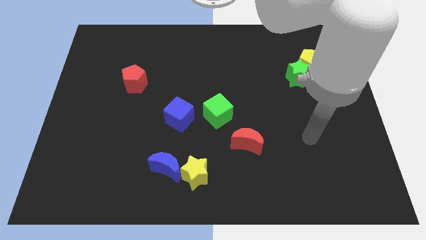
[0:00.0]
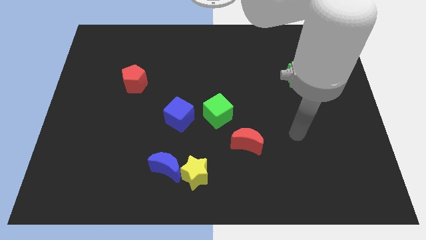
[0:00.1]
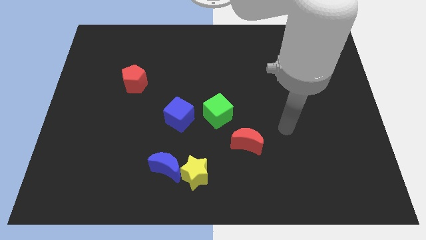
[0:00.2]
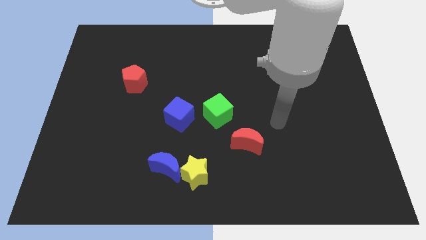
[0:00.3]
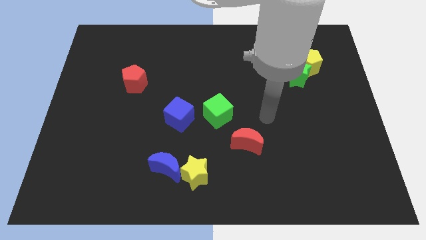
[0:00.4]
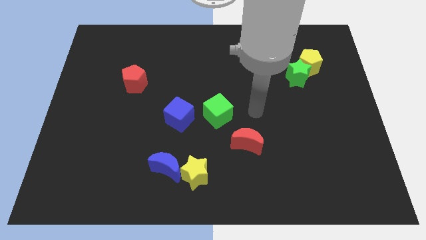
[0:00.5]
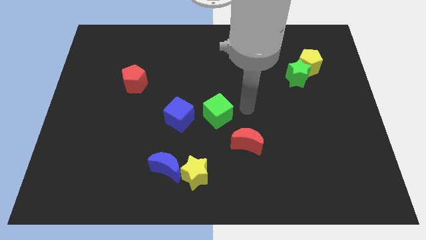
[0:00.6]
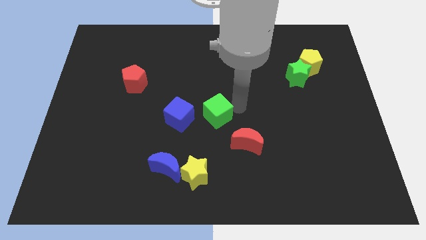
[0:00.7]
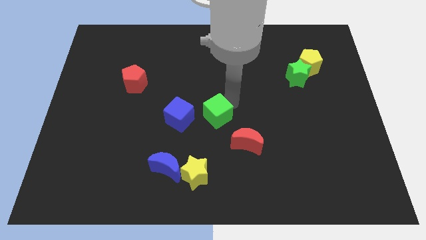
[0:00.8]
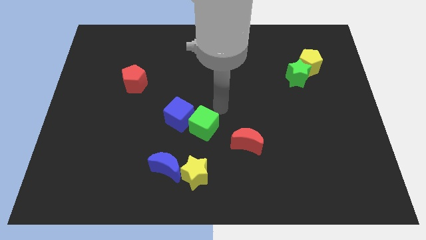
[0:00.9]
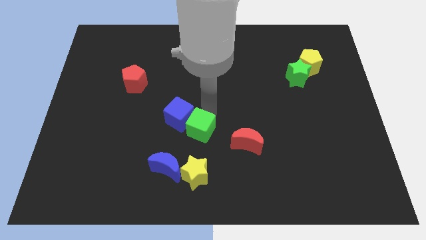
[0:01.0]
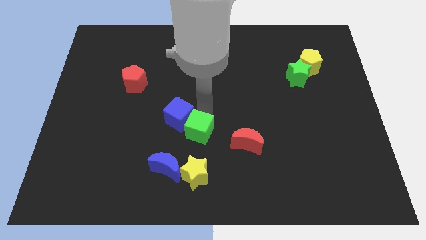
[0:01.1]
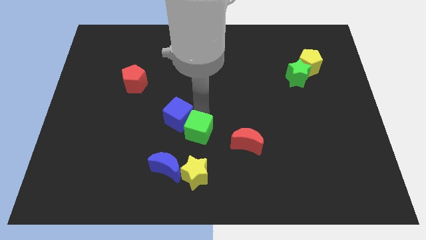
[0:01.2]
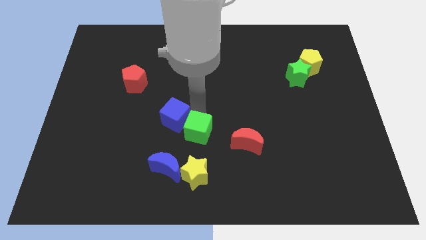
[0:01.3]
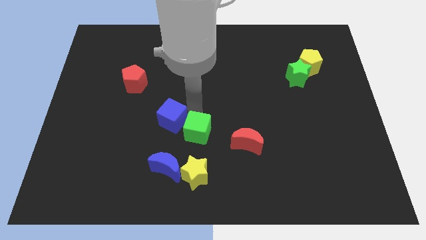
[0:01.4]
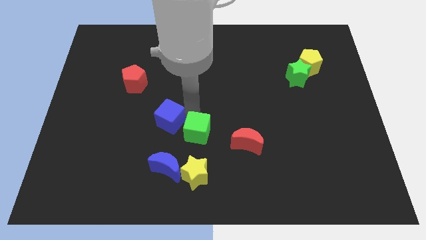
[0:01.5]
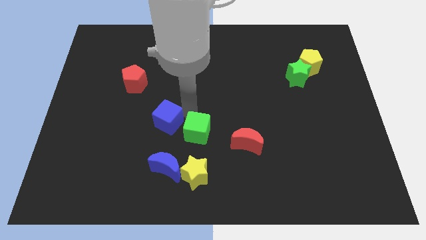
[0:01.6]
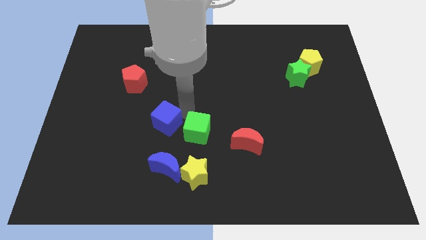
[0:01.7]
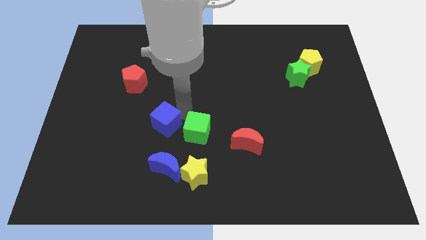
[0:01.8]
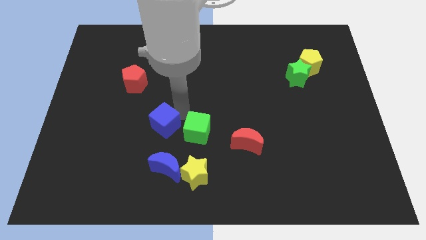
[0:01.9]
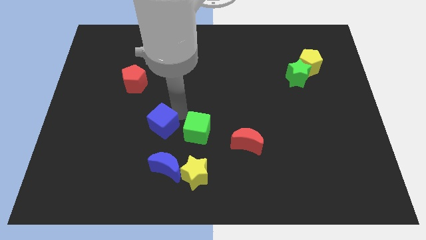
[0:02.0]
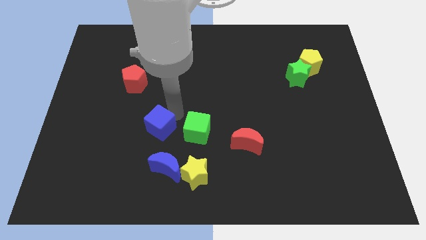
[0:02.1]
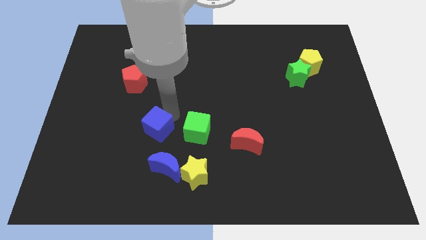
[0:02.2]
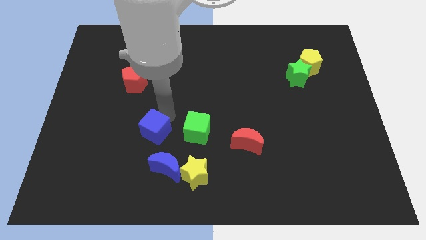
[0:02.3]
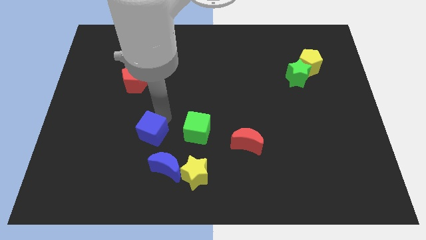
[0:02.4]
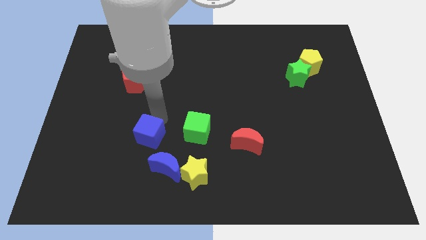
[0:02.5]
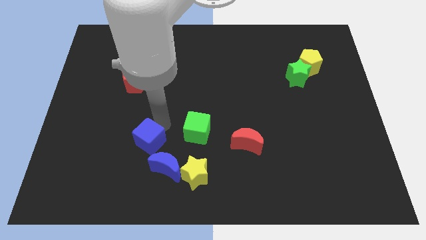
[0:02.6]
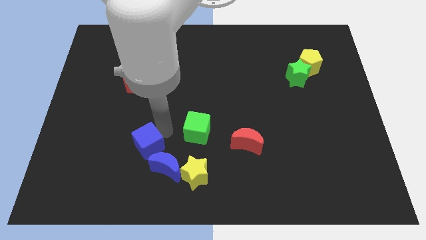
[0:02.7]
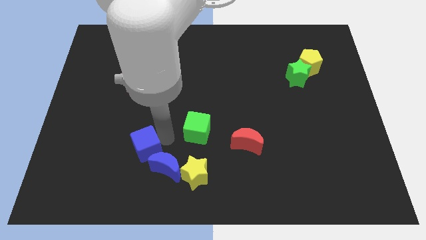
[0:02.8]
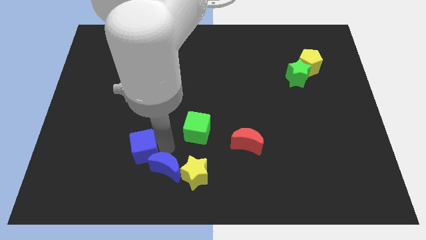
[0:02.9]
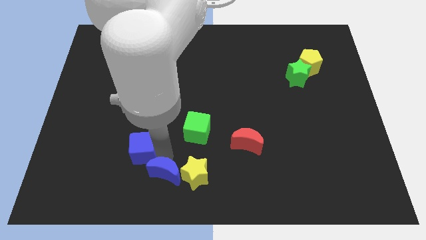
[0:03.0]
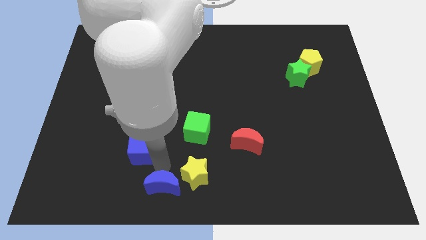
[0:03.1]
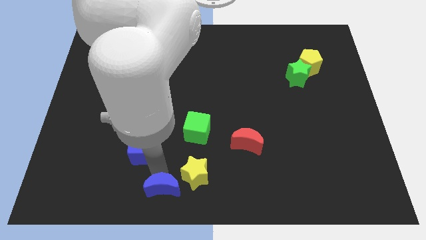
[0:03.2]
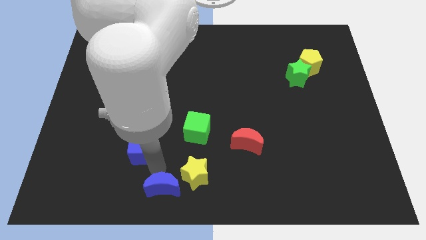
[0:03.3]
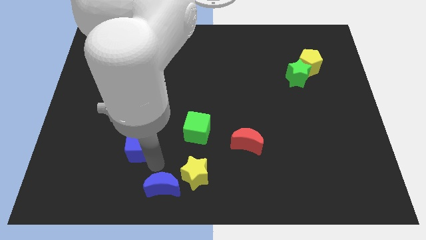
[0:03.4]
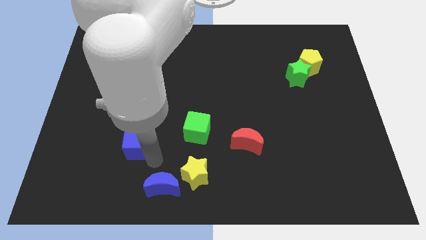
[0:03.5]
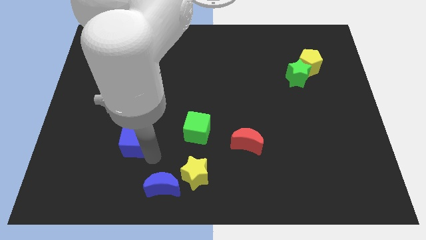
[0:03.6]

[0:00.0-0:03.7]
slightly slide the blue cube to the left

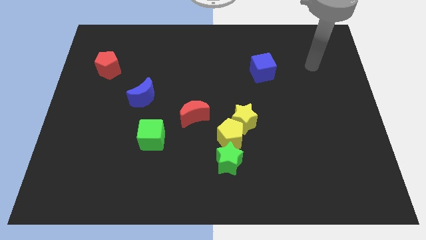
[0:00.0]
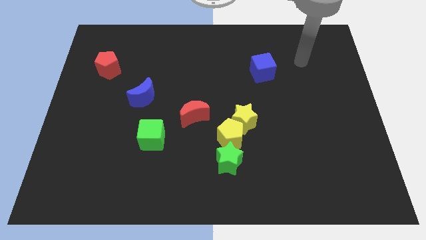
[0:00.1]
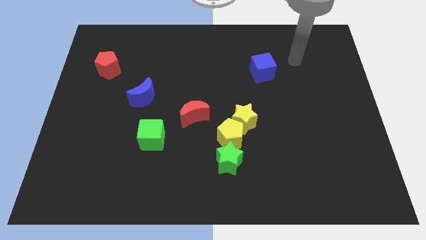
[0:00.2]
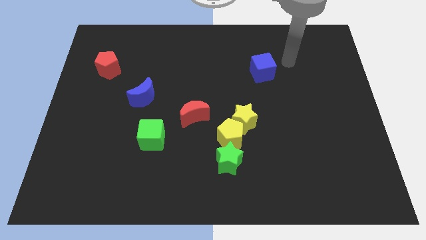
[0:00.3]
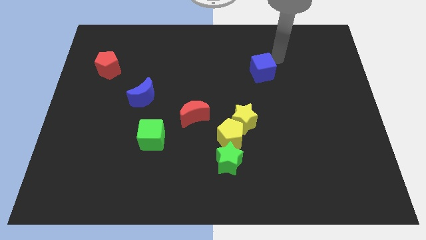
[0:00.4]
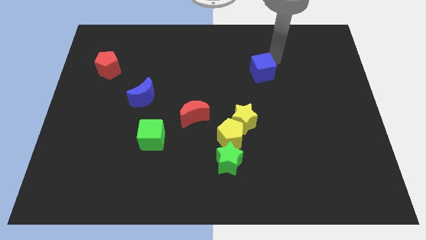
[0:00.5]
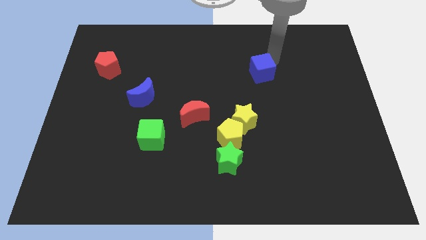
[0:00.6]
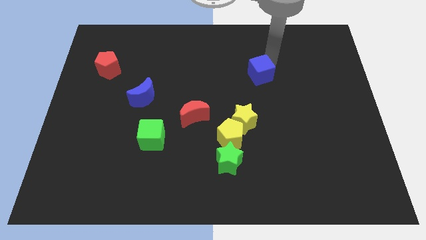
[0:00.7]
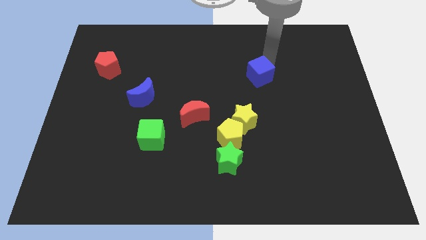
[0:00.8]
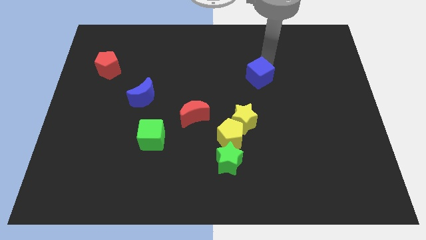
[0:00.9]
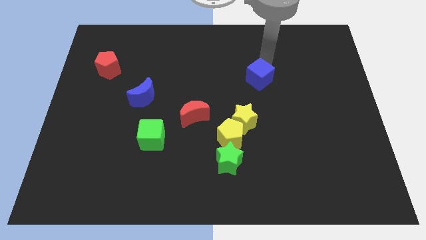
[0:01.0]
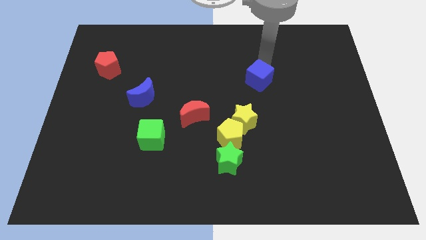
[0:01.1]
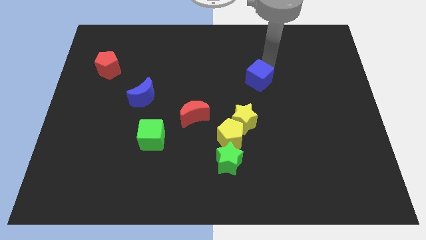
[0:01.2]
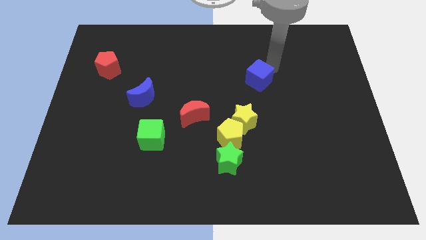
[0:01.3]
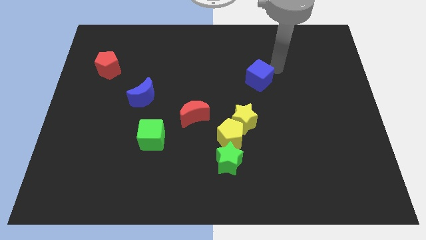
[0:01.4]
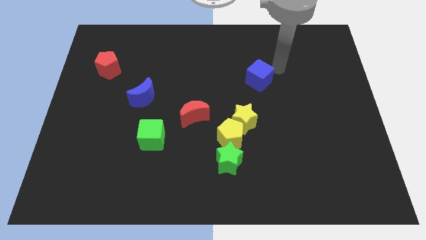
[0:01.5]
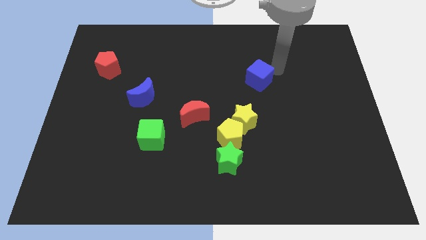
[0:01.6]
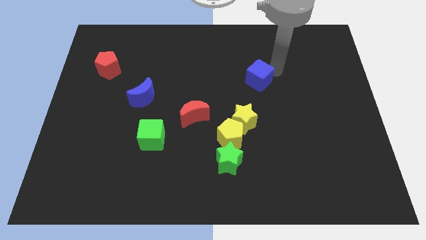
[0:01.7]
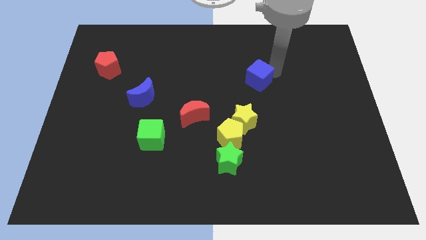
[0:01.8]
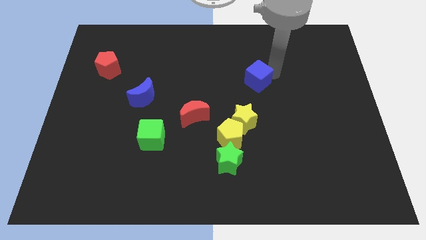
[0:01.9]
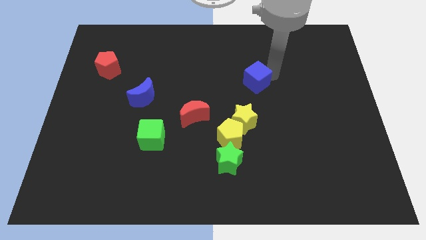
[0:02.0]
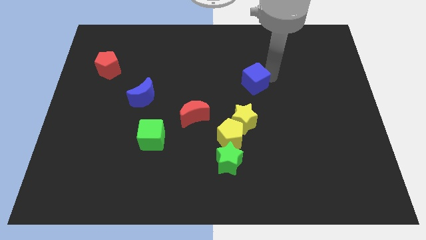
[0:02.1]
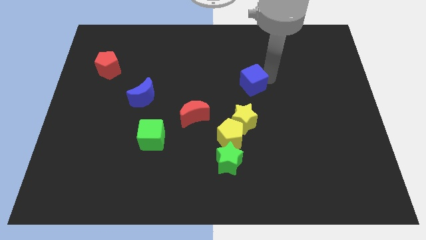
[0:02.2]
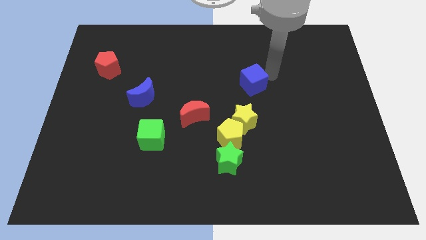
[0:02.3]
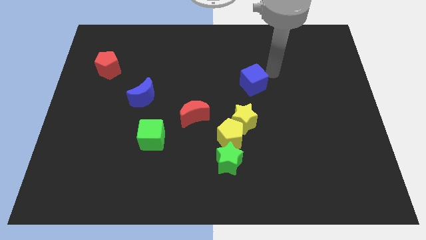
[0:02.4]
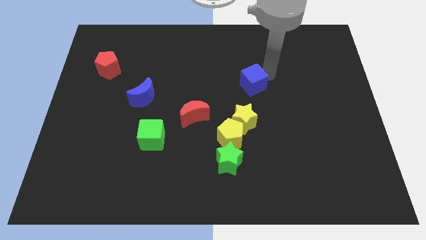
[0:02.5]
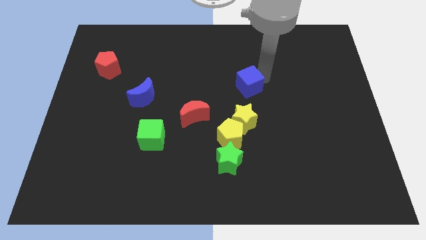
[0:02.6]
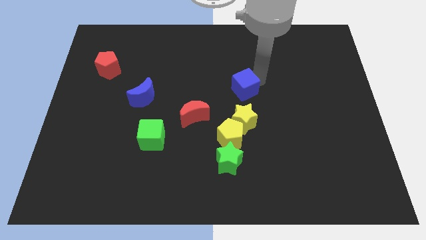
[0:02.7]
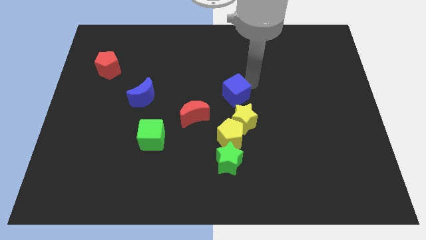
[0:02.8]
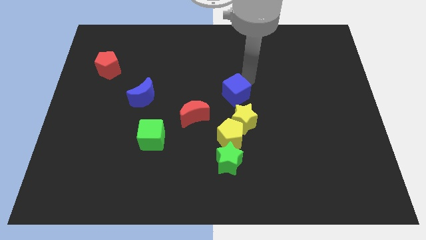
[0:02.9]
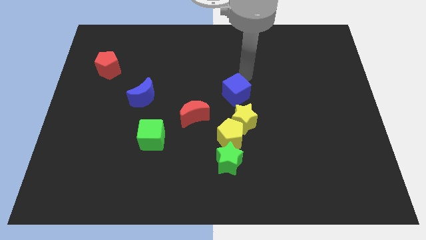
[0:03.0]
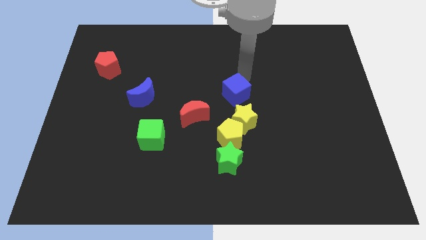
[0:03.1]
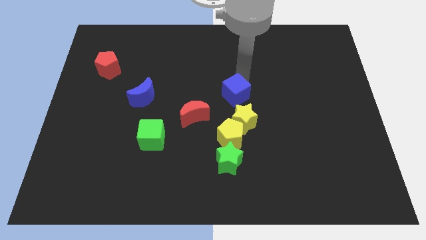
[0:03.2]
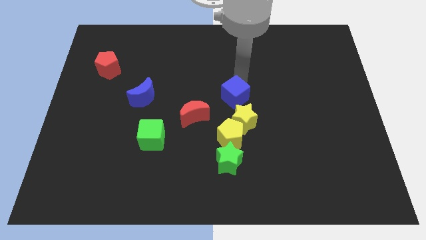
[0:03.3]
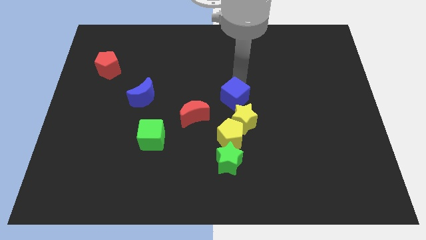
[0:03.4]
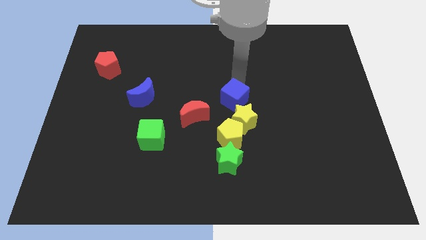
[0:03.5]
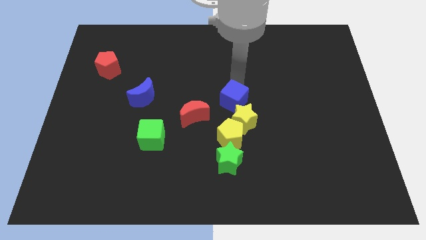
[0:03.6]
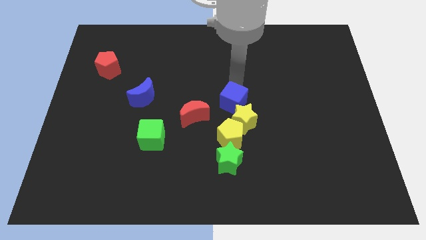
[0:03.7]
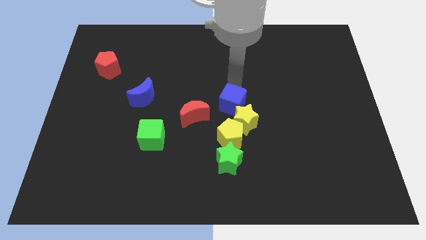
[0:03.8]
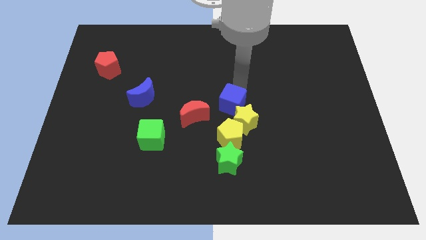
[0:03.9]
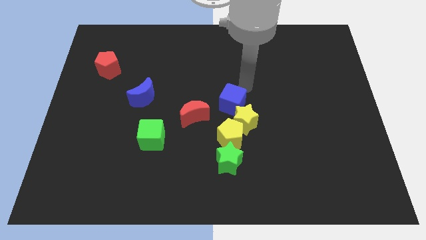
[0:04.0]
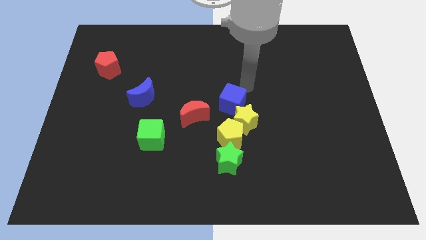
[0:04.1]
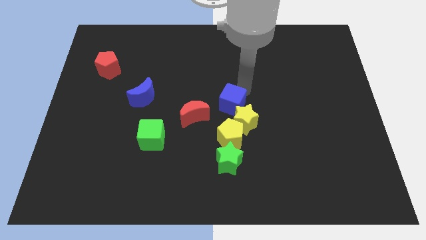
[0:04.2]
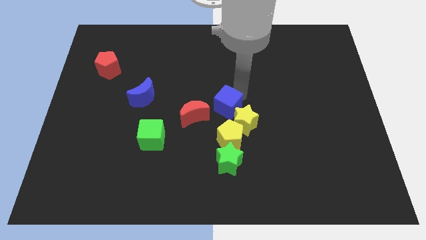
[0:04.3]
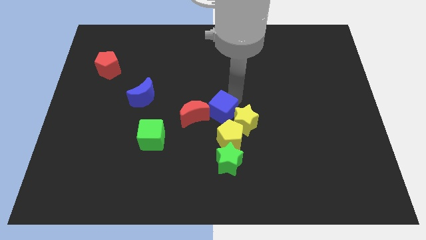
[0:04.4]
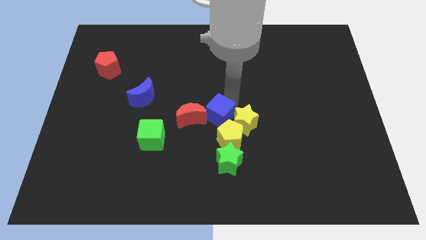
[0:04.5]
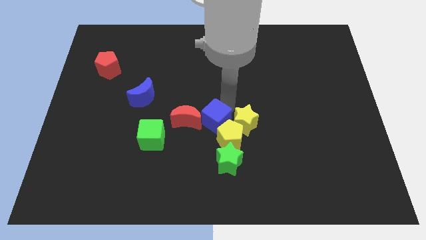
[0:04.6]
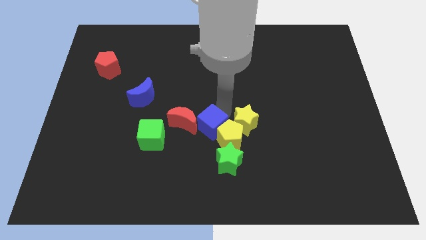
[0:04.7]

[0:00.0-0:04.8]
slide the blue cube down and to the left diagonally
